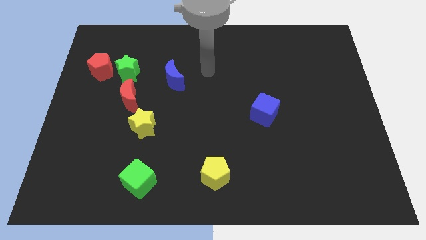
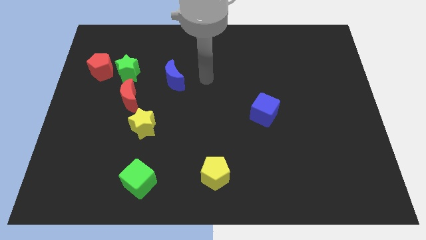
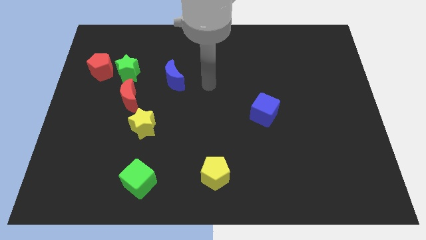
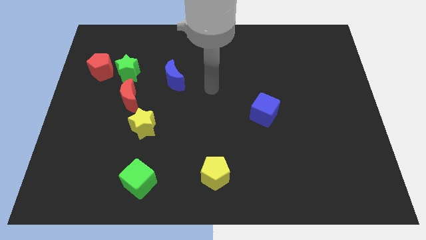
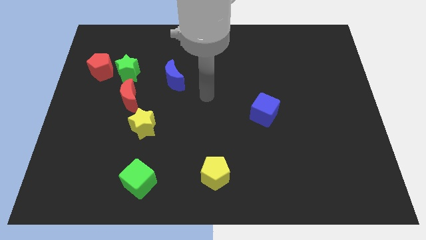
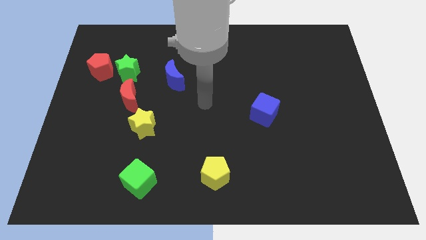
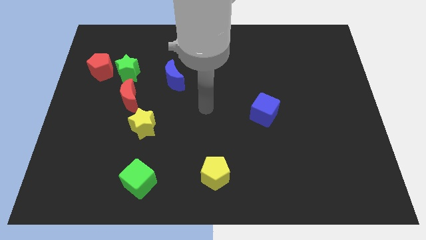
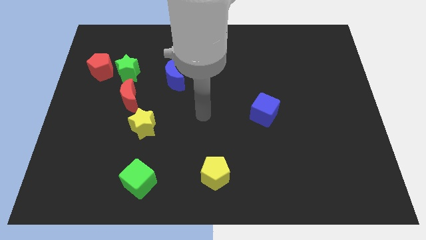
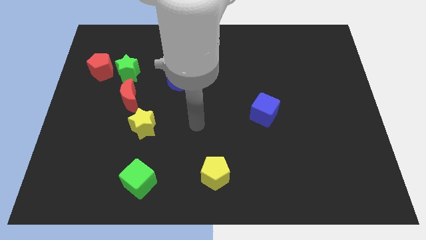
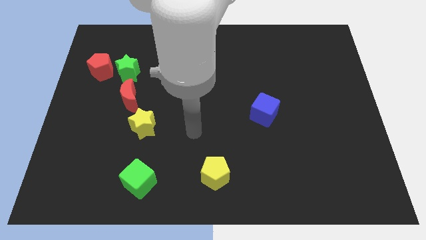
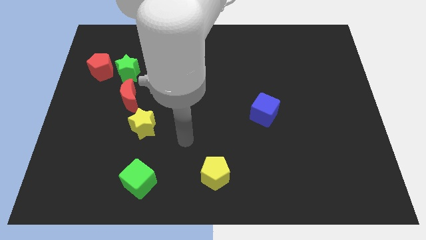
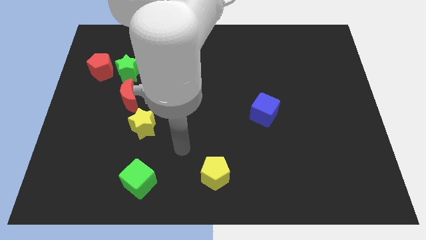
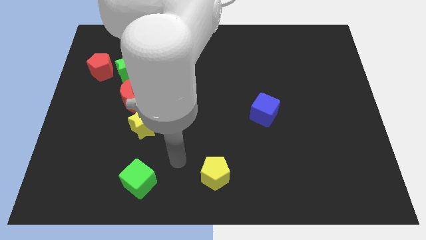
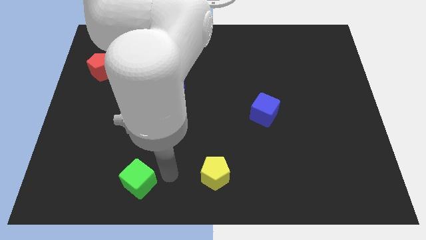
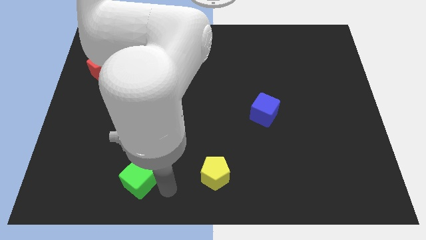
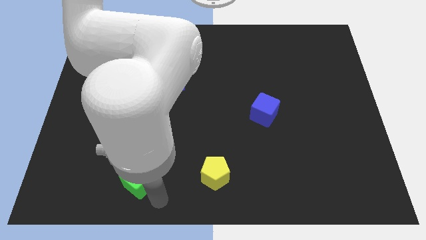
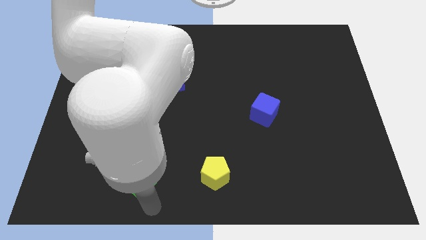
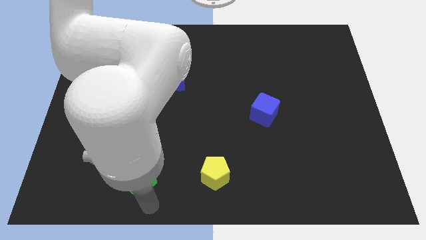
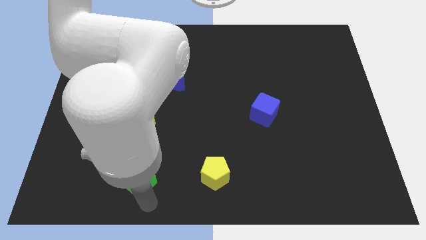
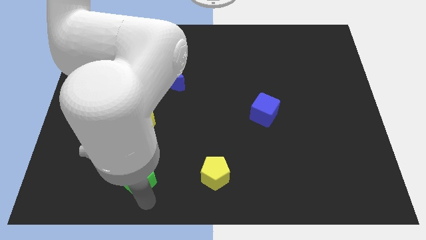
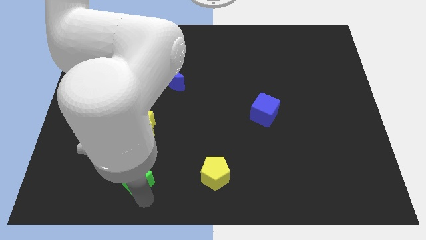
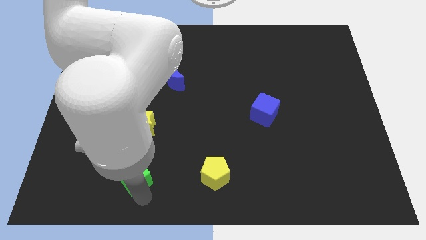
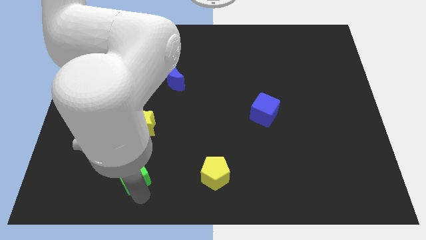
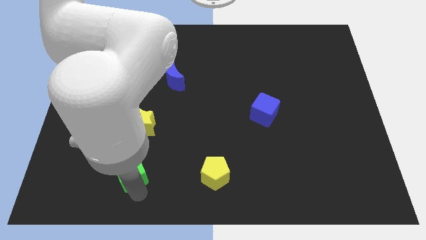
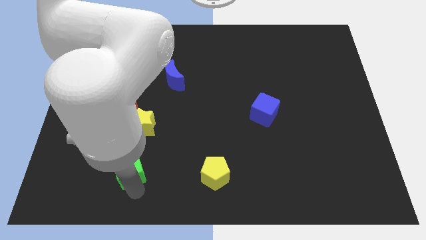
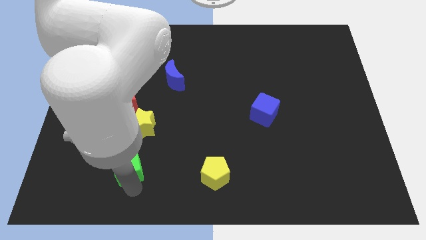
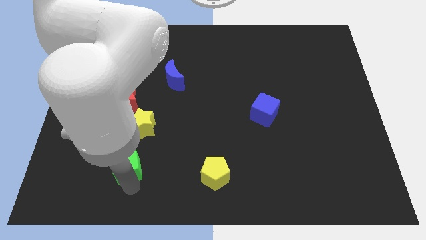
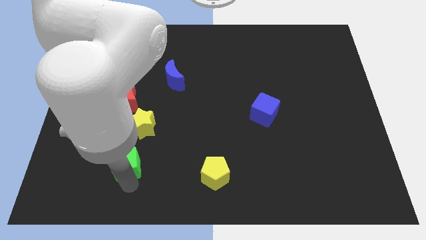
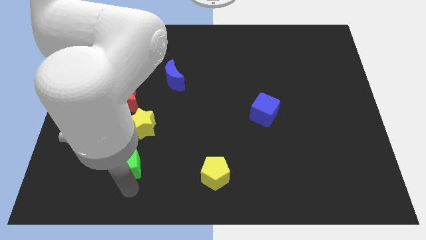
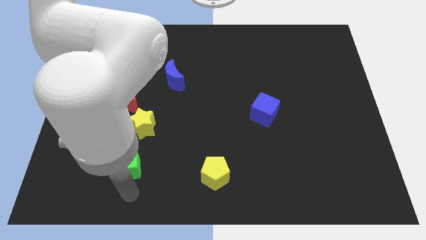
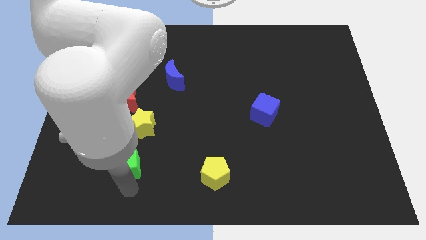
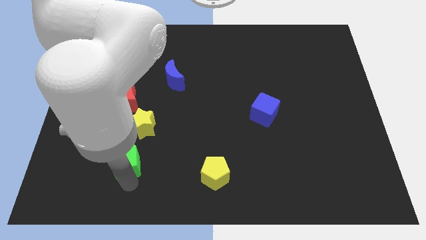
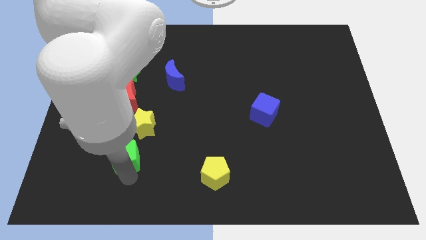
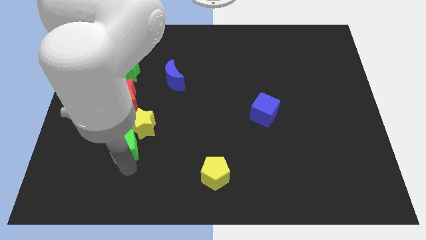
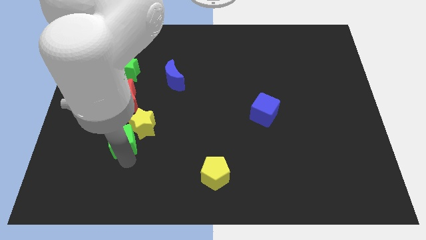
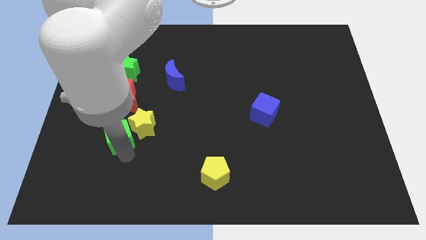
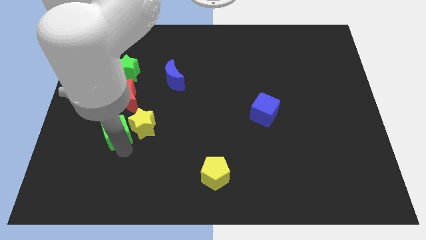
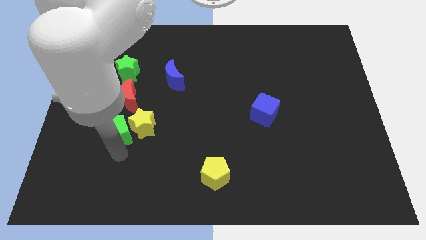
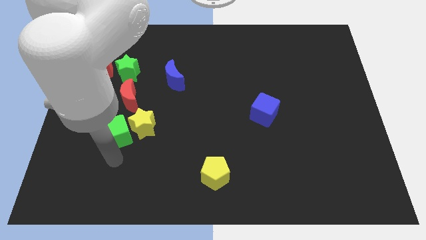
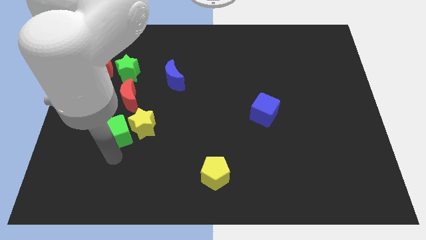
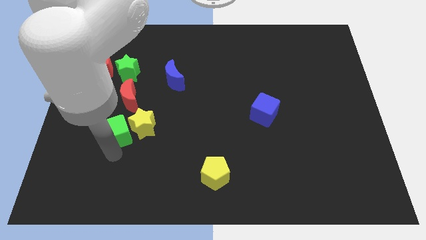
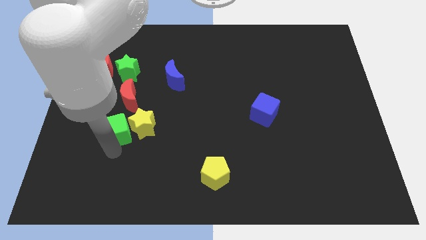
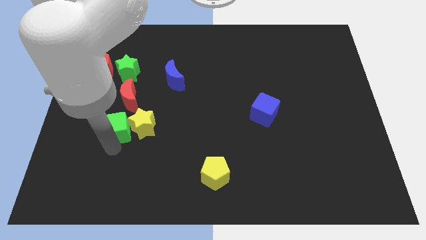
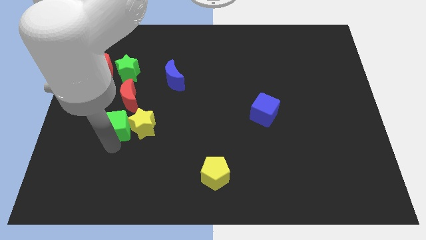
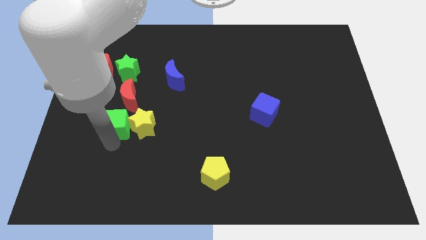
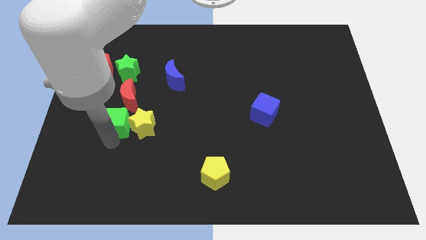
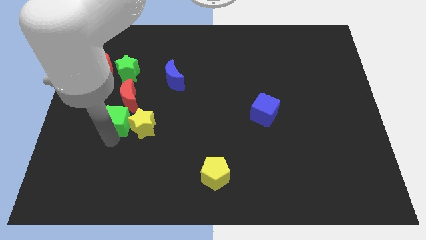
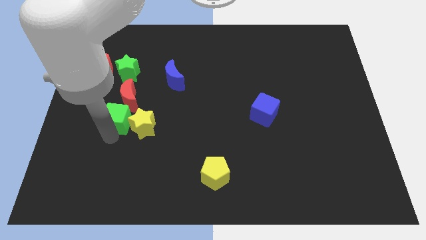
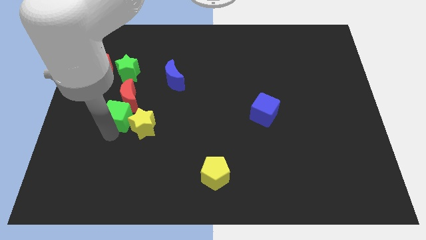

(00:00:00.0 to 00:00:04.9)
push the green cube next to the red moon

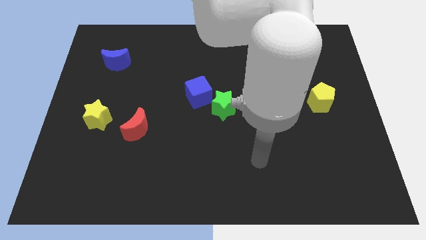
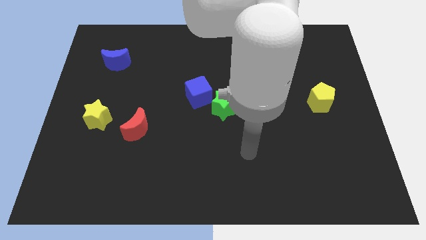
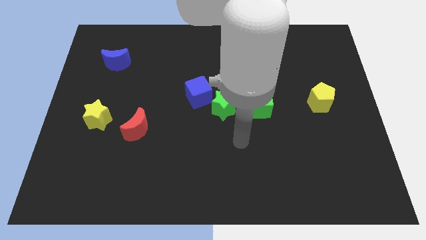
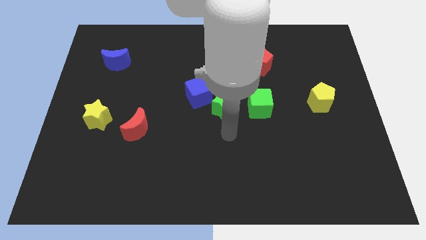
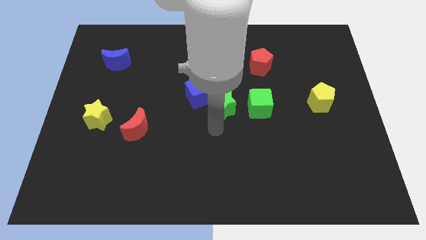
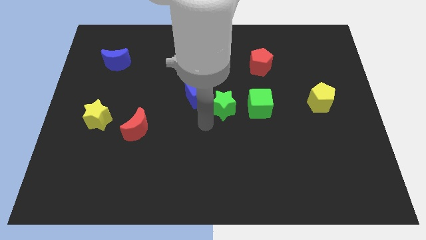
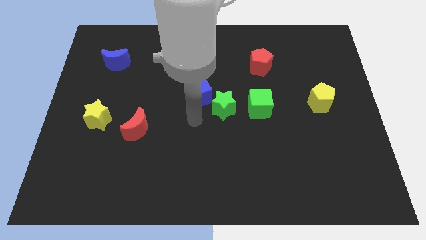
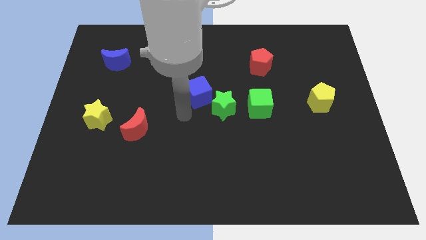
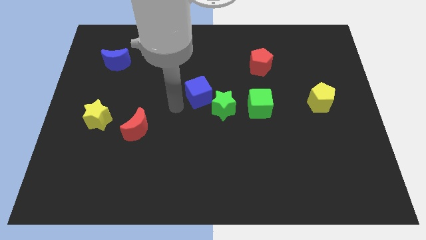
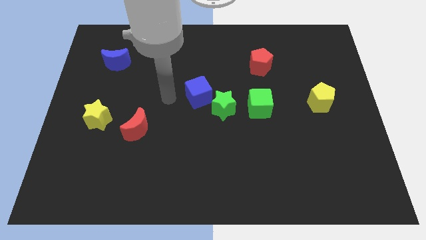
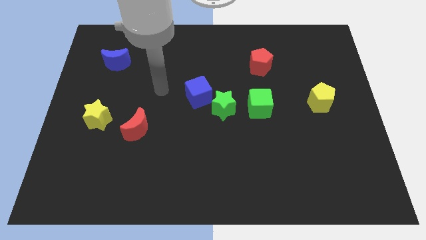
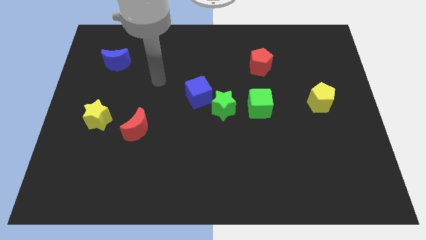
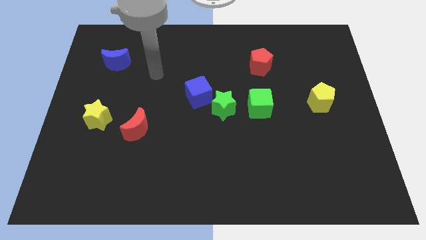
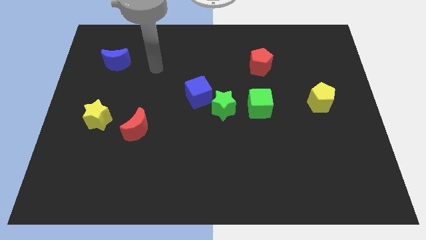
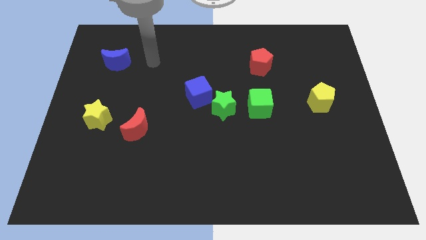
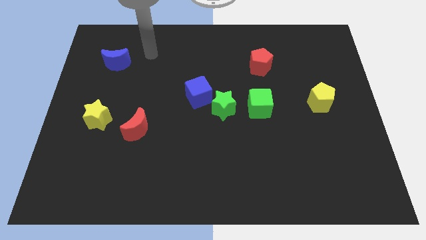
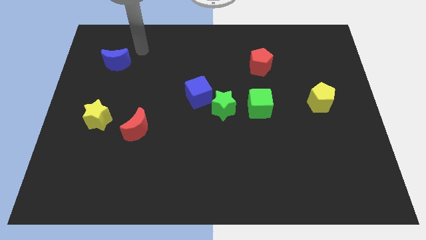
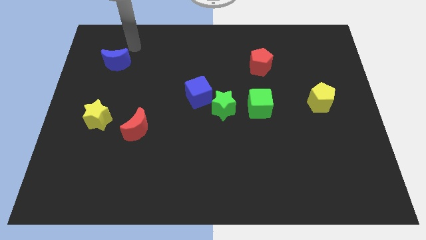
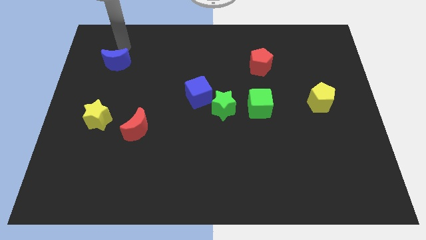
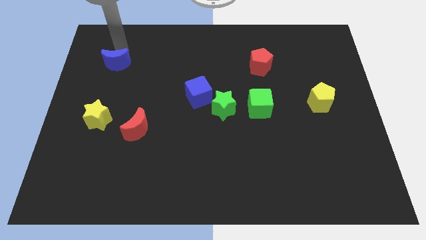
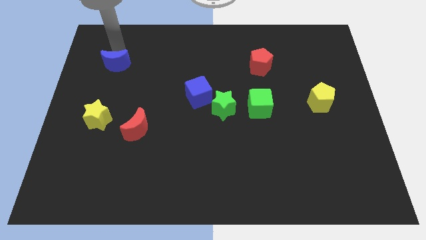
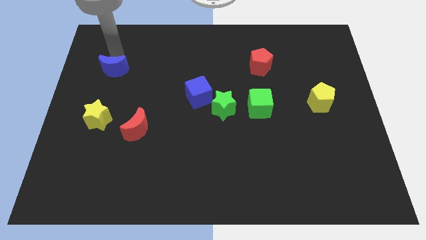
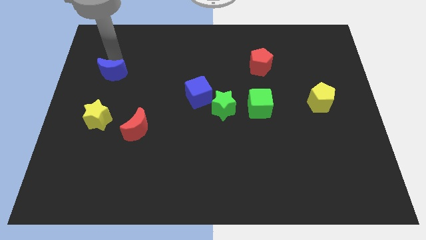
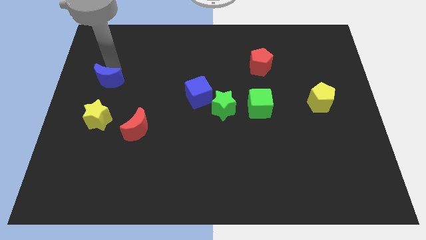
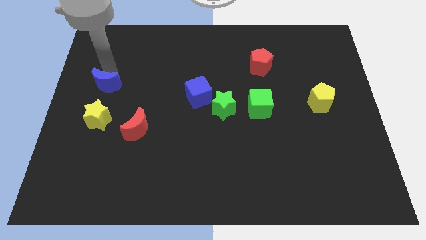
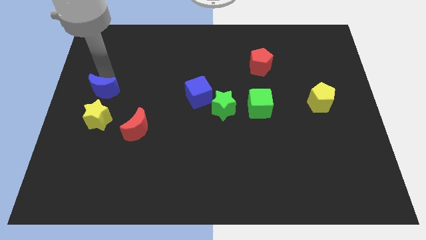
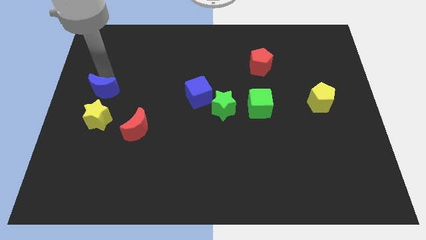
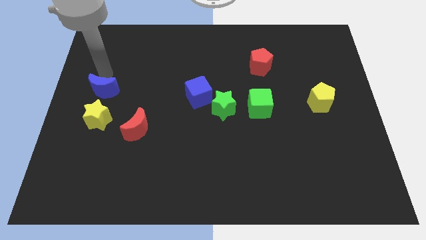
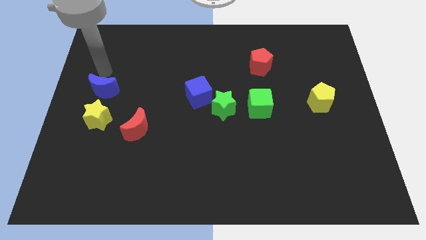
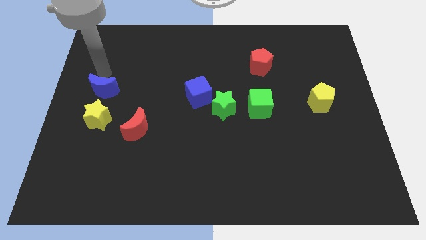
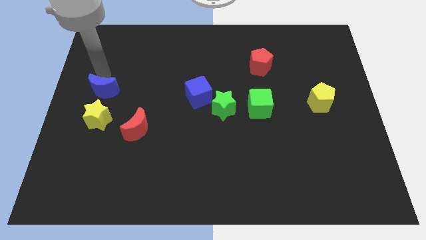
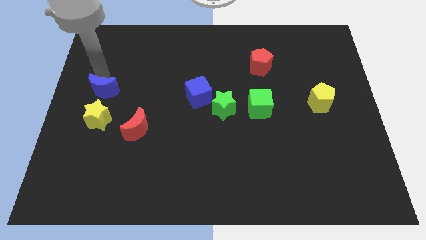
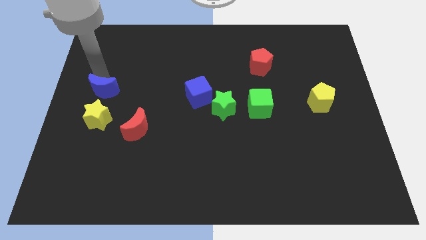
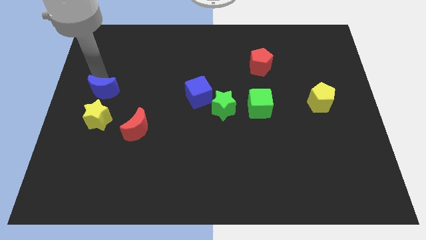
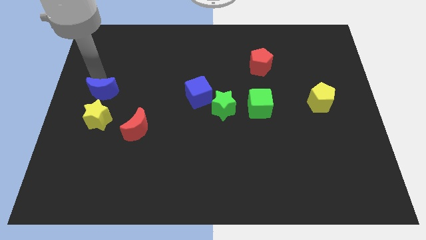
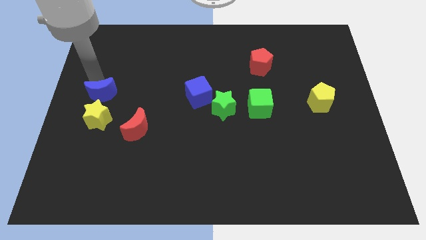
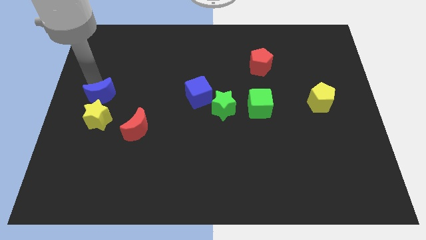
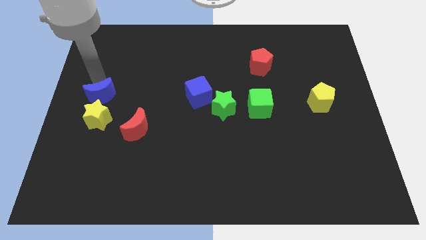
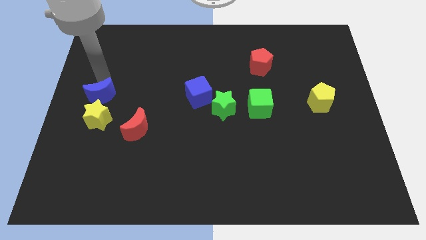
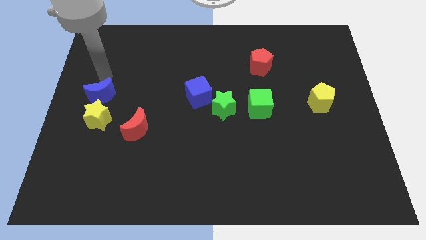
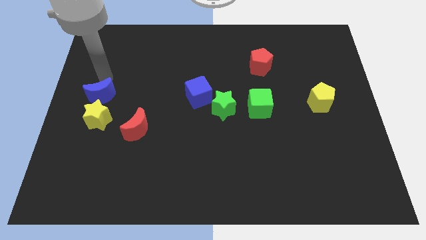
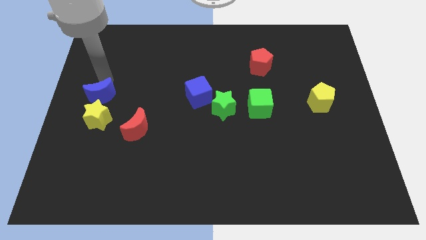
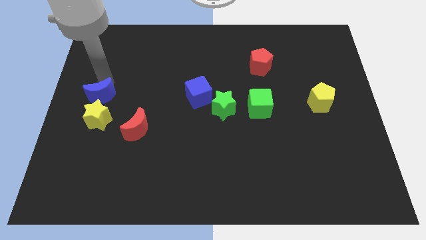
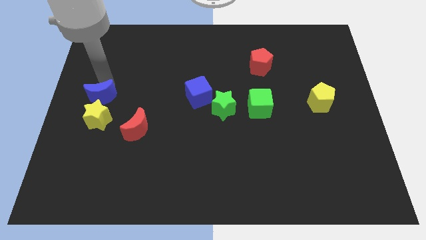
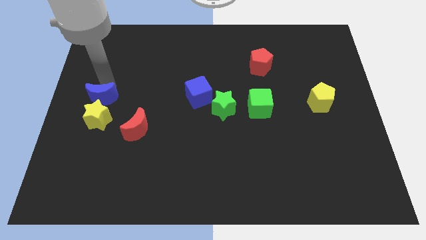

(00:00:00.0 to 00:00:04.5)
move the blue moon to the yellow star
